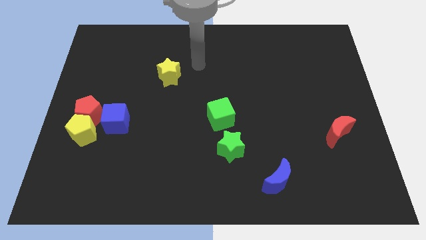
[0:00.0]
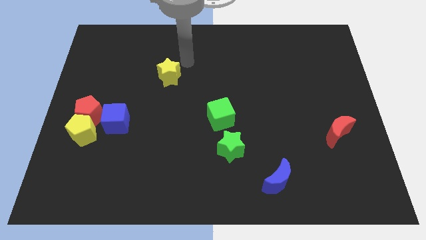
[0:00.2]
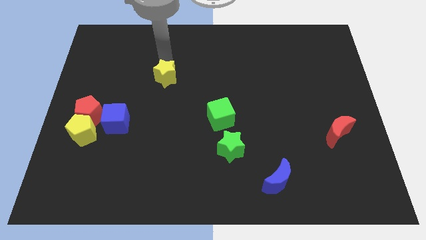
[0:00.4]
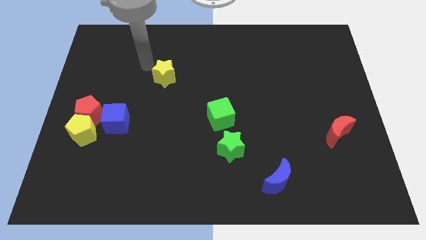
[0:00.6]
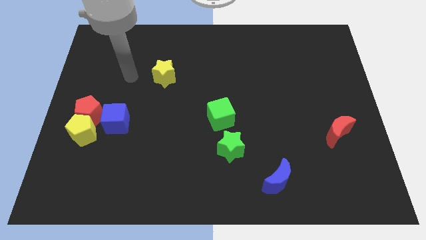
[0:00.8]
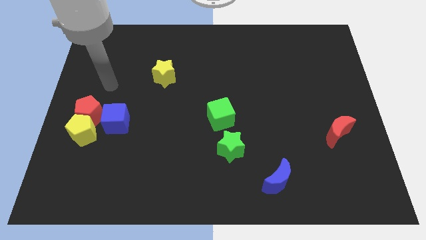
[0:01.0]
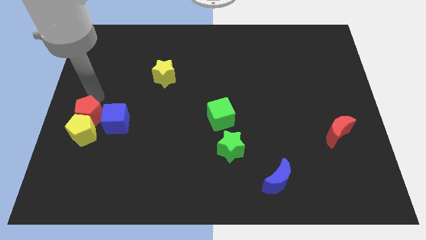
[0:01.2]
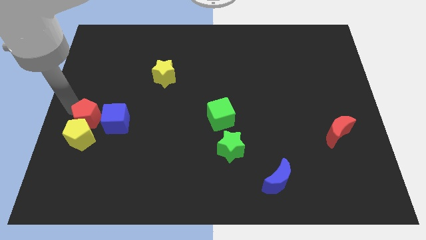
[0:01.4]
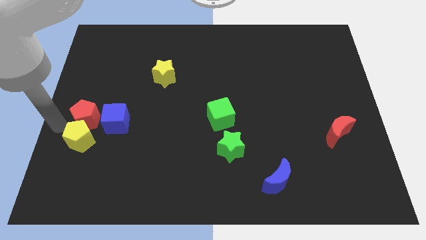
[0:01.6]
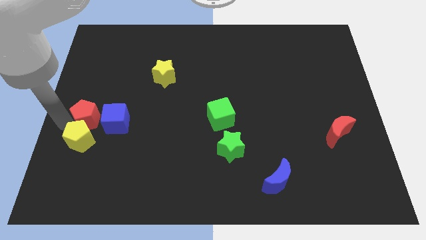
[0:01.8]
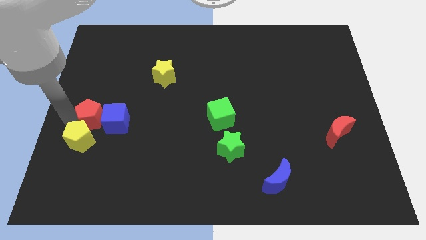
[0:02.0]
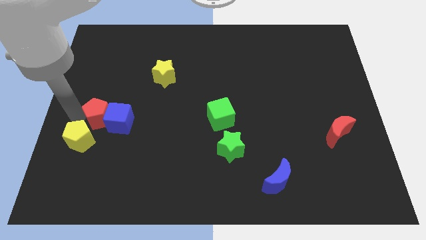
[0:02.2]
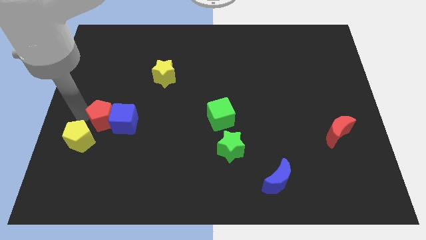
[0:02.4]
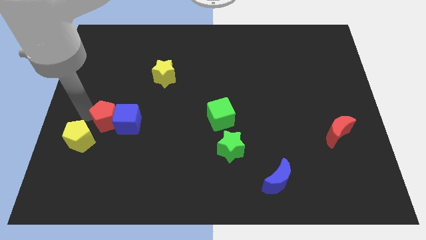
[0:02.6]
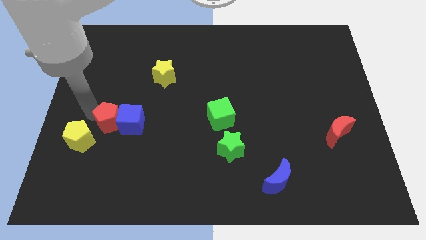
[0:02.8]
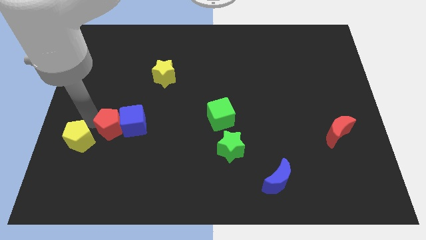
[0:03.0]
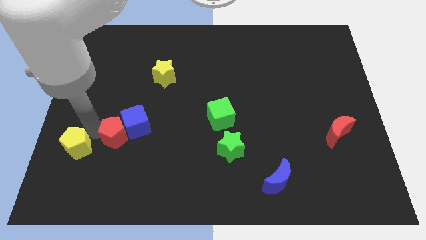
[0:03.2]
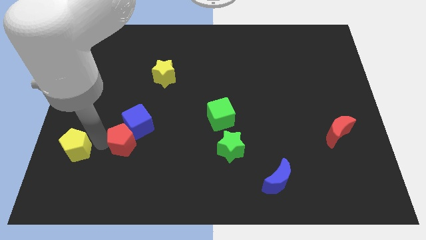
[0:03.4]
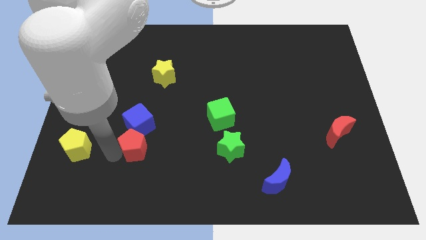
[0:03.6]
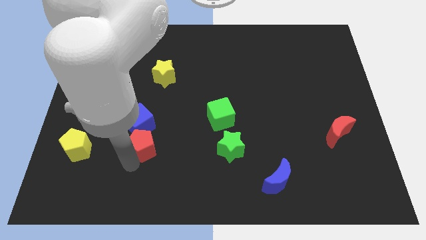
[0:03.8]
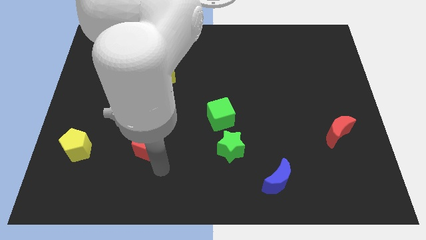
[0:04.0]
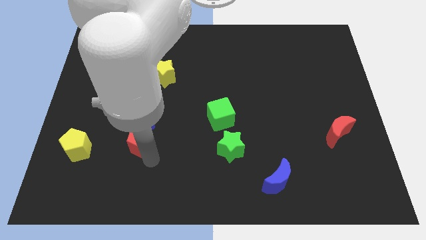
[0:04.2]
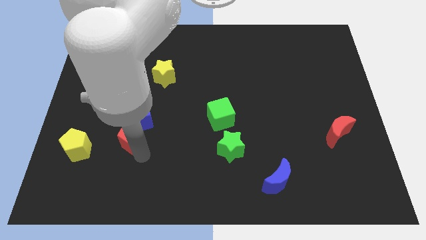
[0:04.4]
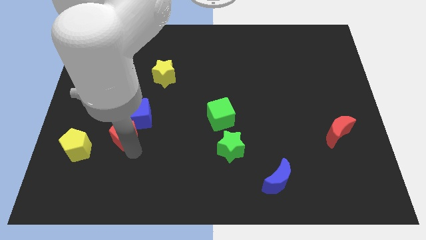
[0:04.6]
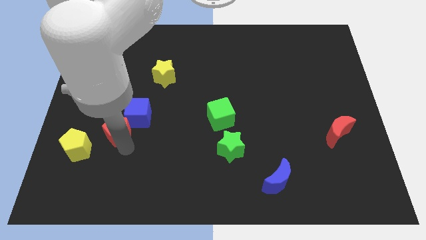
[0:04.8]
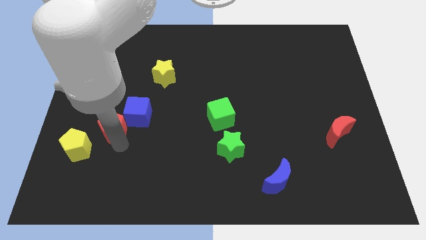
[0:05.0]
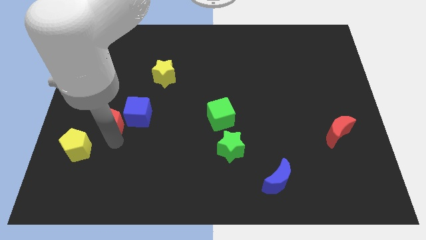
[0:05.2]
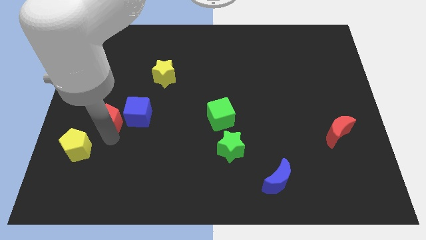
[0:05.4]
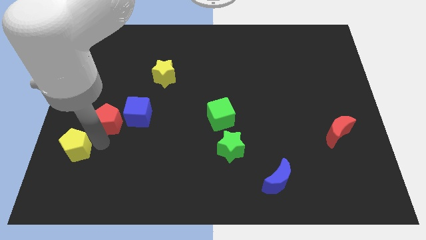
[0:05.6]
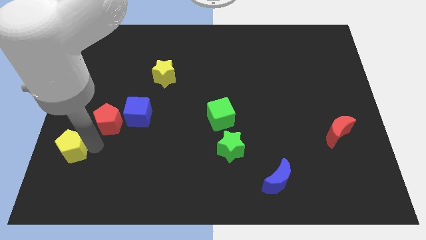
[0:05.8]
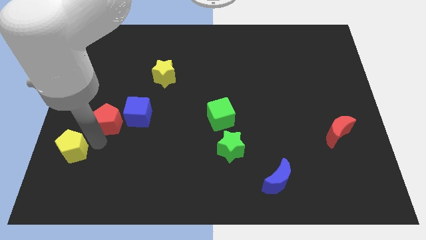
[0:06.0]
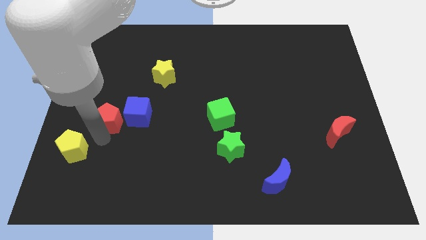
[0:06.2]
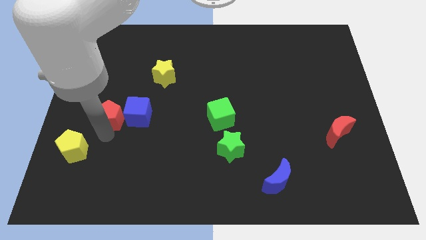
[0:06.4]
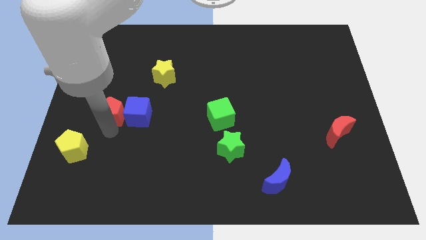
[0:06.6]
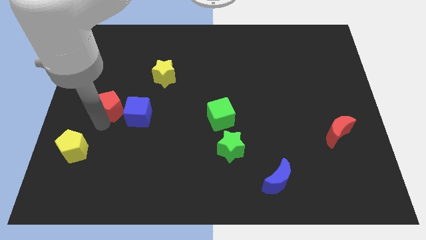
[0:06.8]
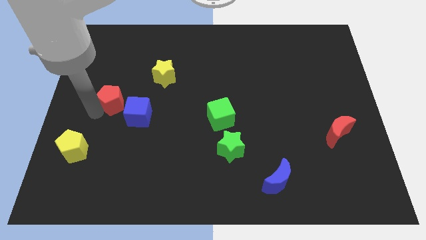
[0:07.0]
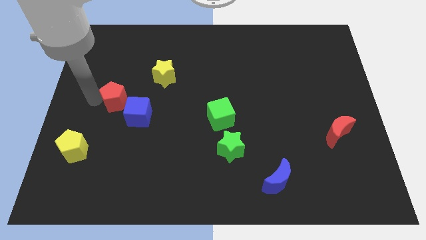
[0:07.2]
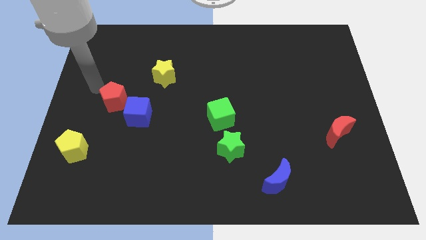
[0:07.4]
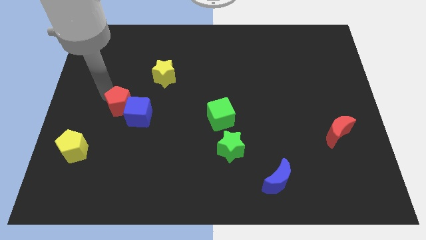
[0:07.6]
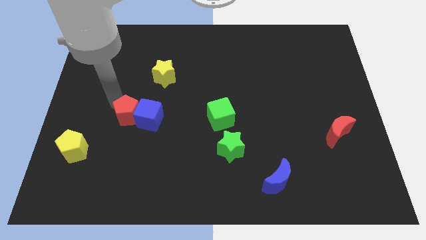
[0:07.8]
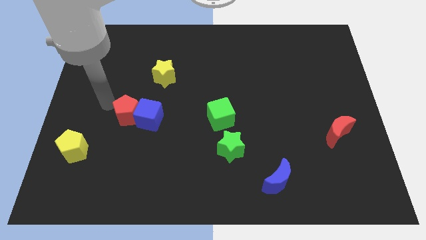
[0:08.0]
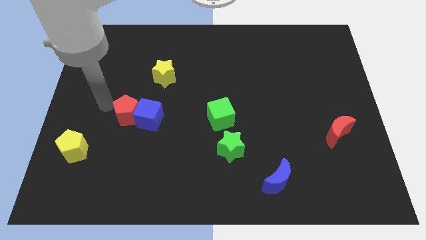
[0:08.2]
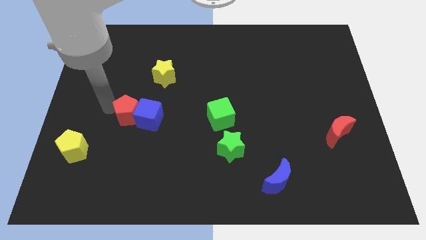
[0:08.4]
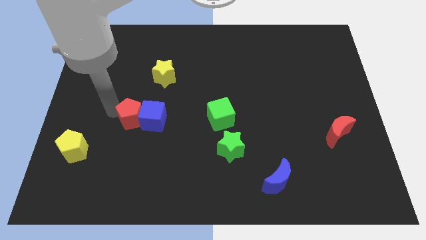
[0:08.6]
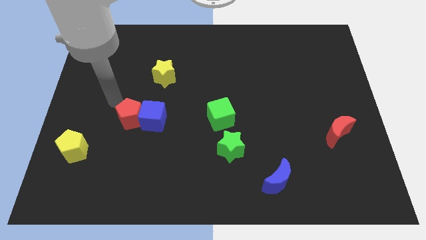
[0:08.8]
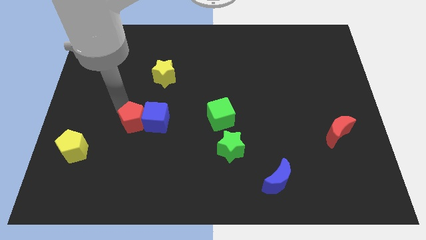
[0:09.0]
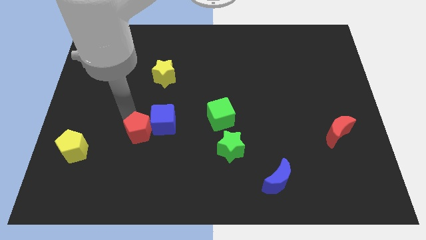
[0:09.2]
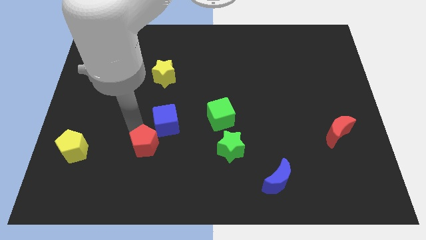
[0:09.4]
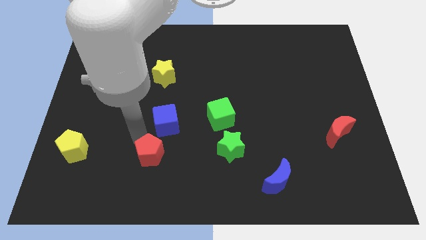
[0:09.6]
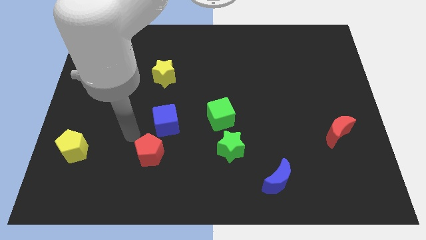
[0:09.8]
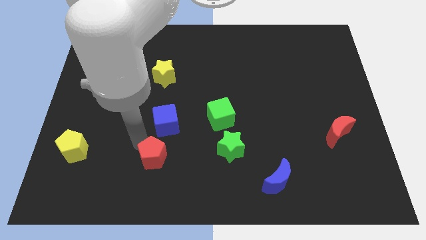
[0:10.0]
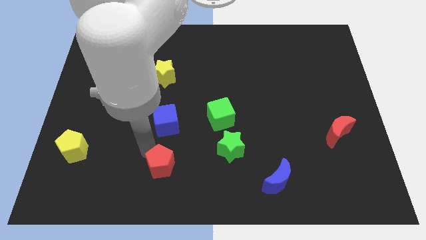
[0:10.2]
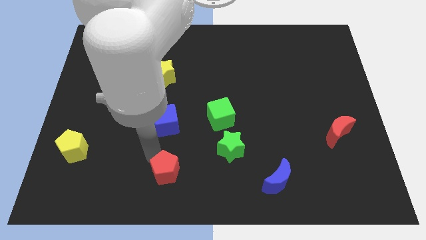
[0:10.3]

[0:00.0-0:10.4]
move the red pentagon to the bottom

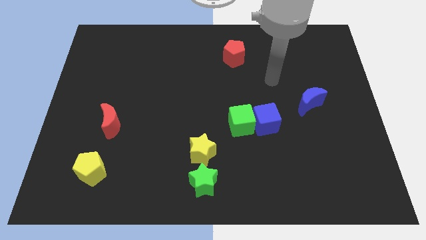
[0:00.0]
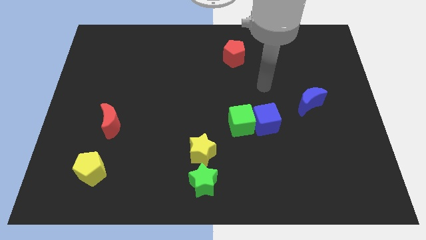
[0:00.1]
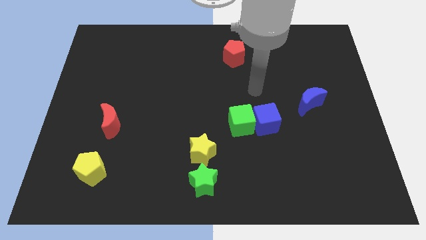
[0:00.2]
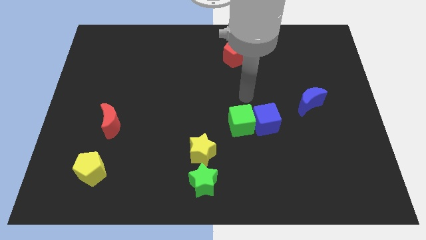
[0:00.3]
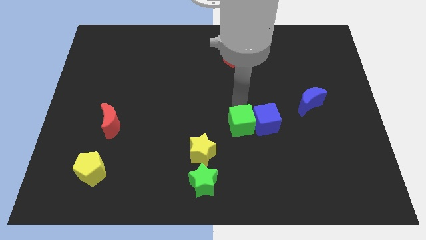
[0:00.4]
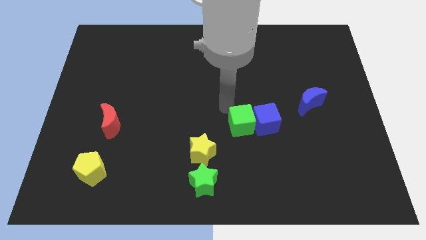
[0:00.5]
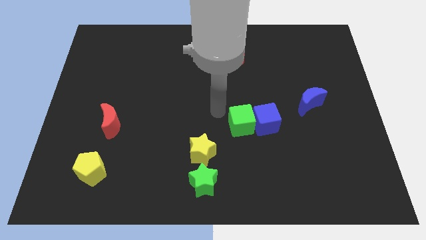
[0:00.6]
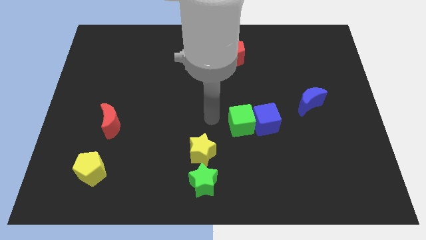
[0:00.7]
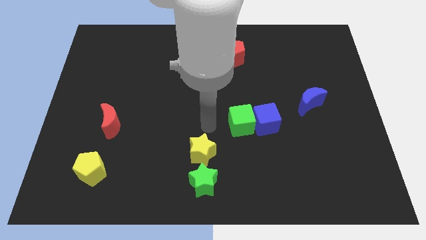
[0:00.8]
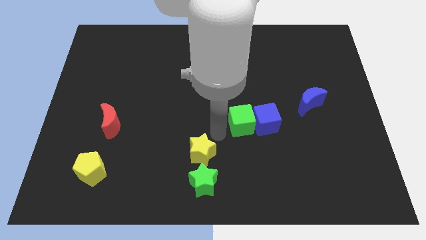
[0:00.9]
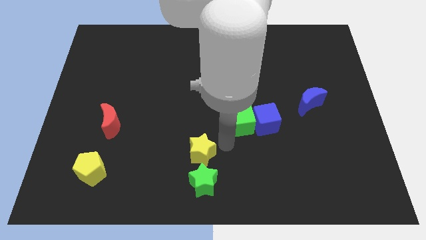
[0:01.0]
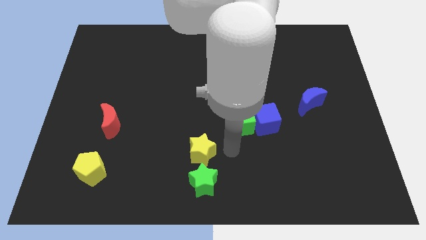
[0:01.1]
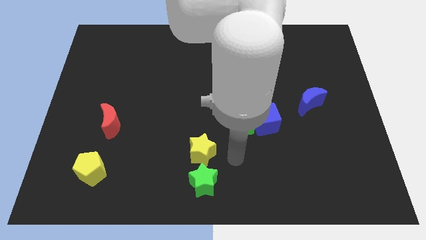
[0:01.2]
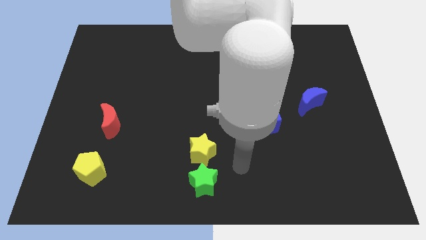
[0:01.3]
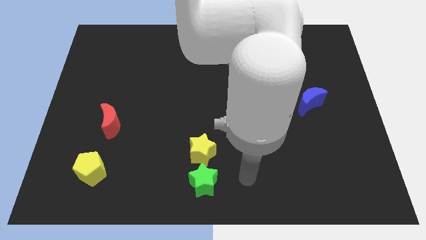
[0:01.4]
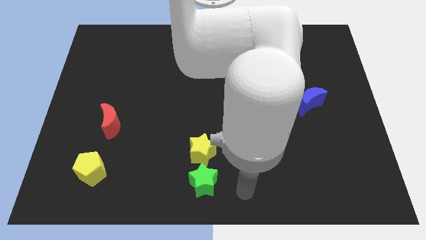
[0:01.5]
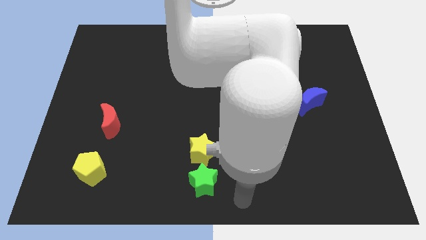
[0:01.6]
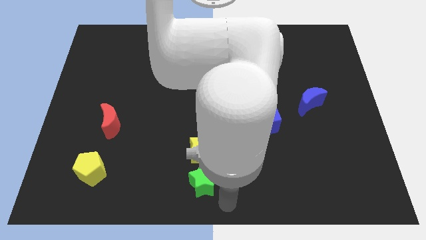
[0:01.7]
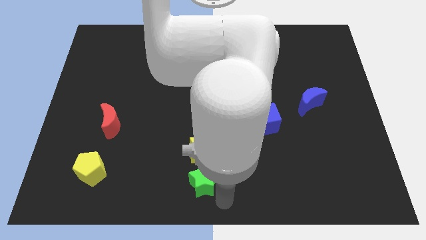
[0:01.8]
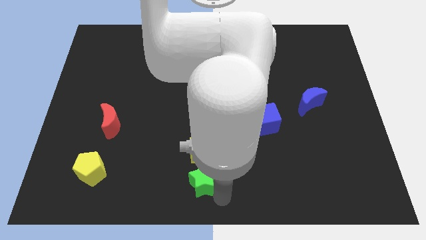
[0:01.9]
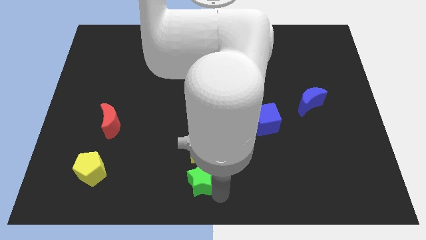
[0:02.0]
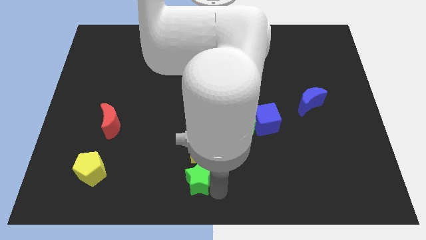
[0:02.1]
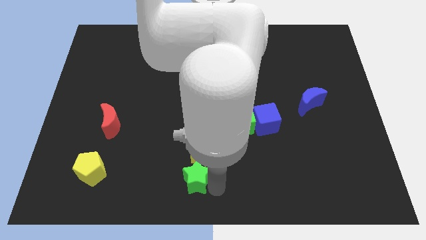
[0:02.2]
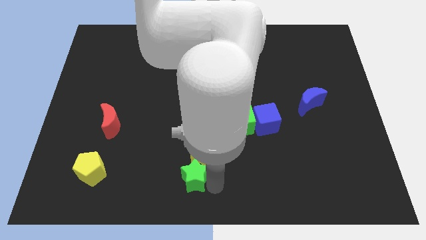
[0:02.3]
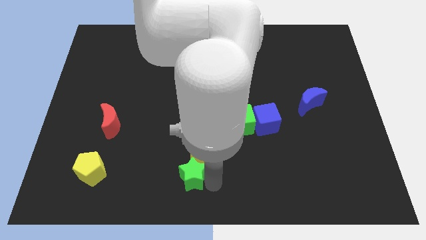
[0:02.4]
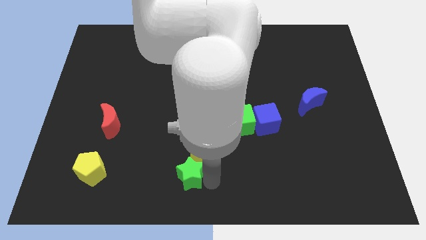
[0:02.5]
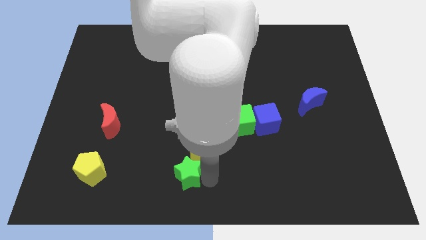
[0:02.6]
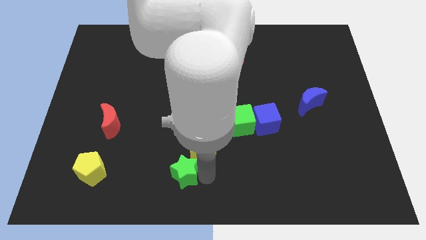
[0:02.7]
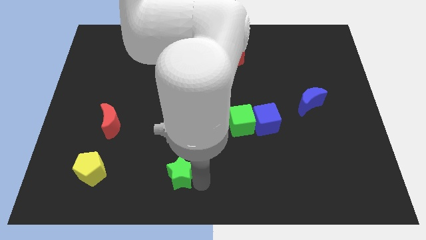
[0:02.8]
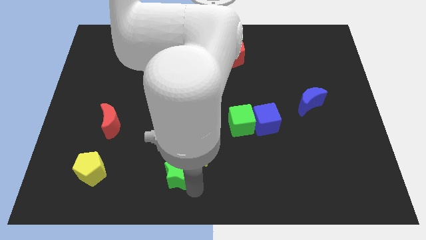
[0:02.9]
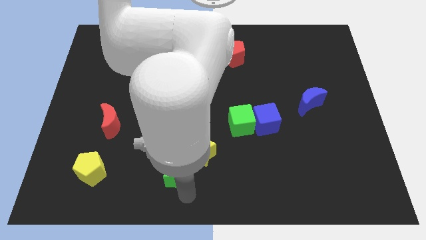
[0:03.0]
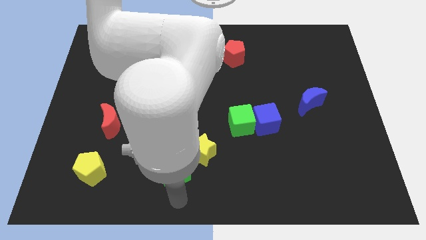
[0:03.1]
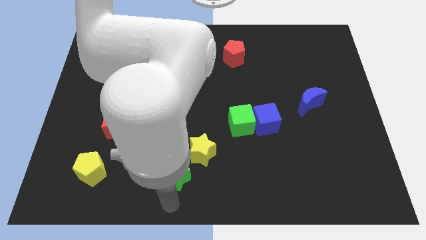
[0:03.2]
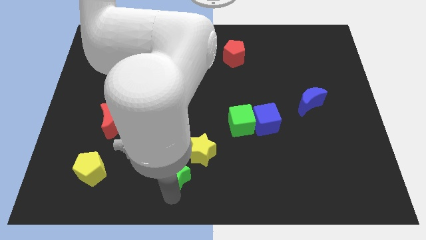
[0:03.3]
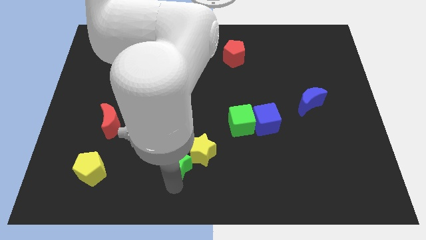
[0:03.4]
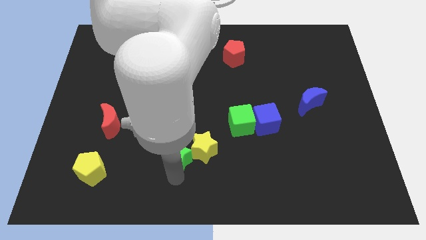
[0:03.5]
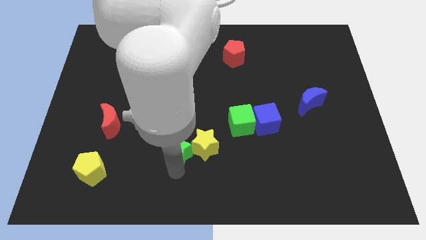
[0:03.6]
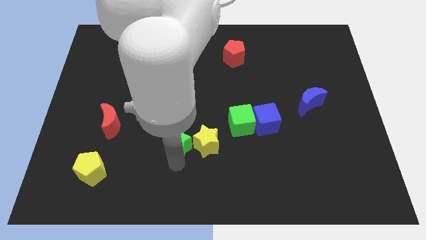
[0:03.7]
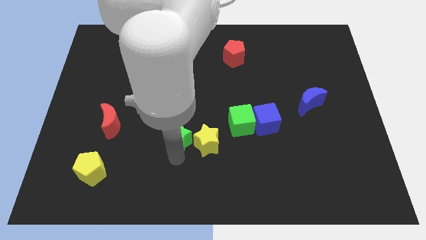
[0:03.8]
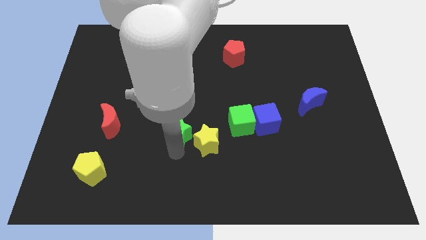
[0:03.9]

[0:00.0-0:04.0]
move the green star to the middle
